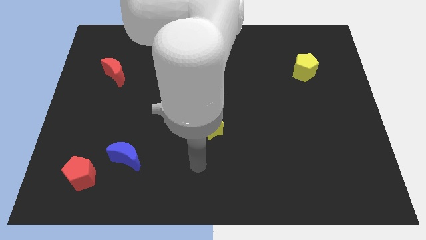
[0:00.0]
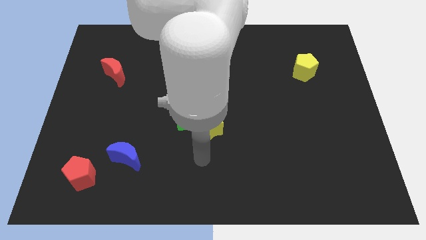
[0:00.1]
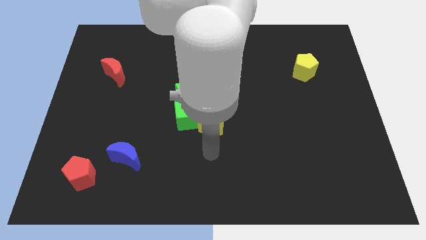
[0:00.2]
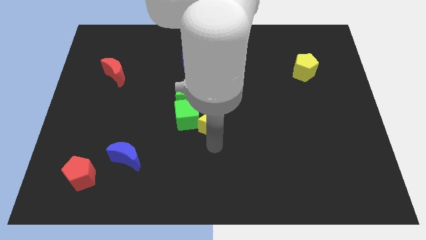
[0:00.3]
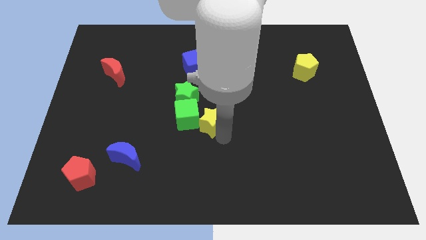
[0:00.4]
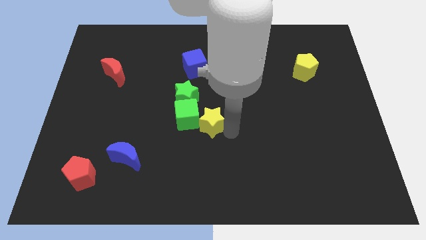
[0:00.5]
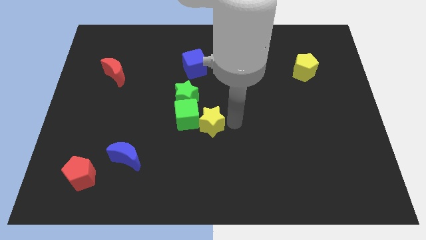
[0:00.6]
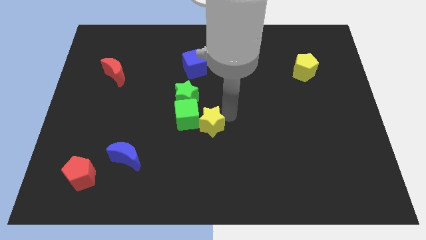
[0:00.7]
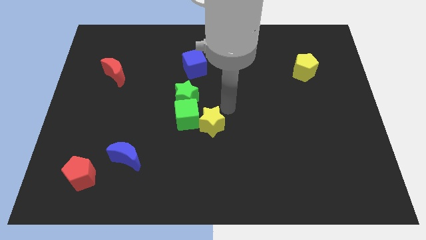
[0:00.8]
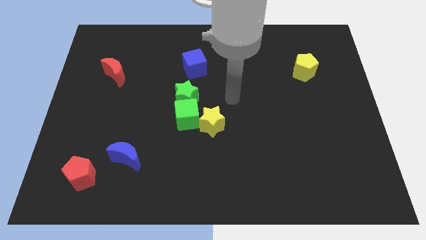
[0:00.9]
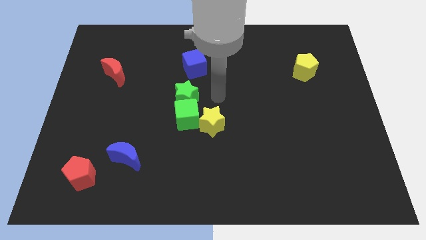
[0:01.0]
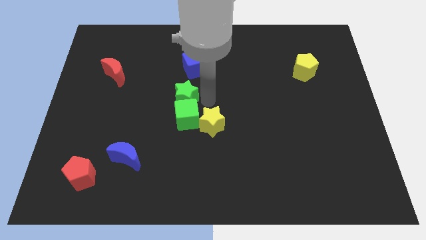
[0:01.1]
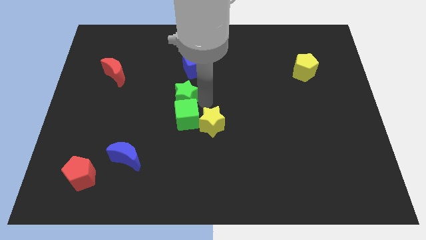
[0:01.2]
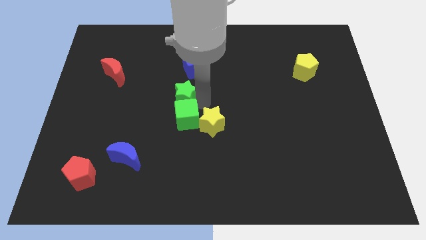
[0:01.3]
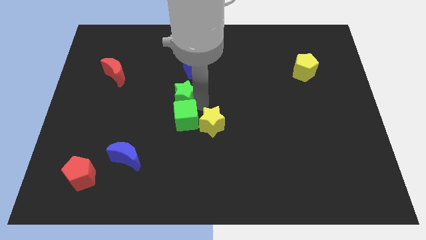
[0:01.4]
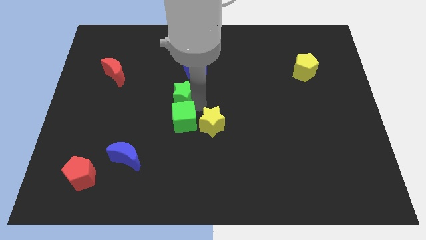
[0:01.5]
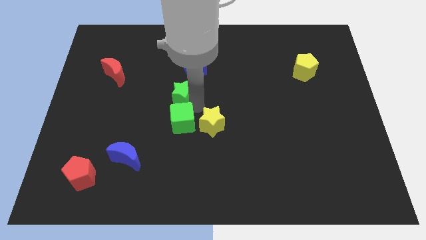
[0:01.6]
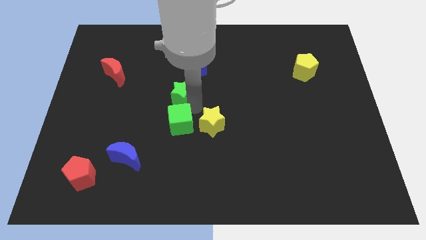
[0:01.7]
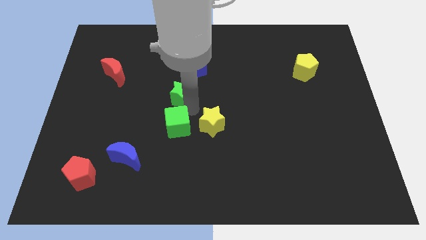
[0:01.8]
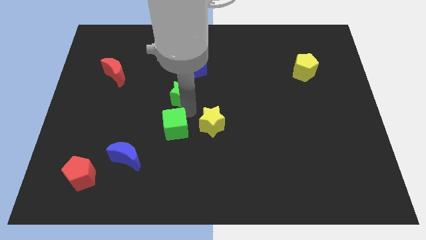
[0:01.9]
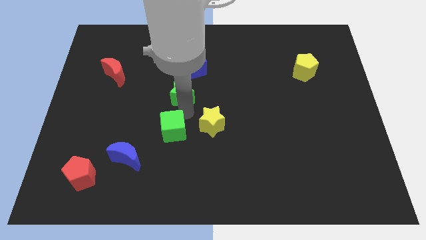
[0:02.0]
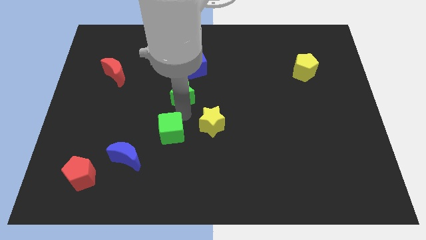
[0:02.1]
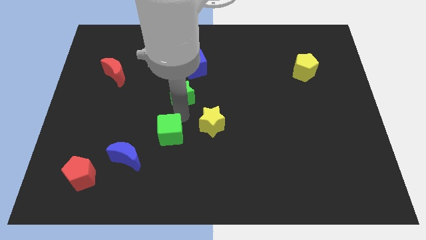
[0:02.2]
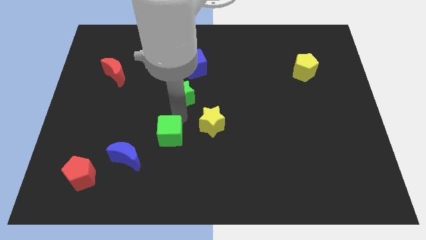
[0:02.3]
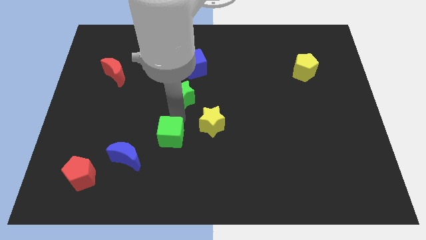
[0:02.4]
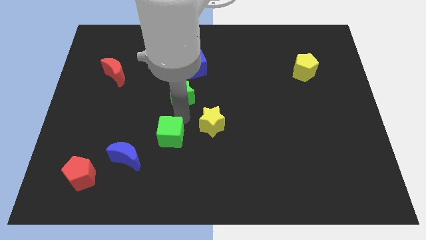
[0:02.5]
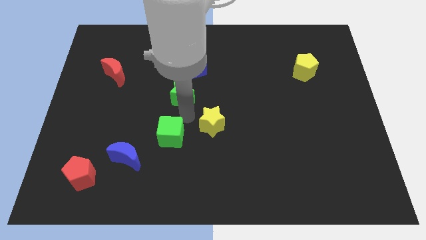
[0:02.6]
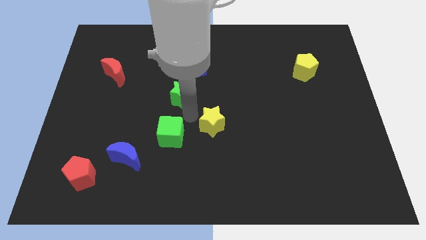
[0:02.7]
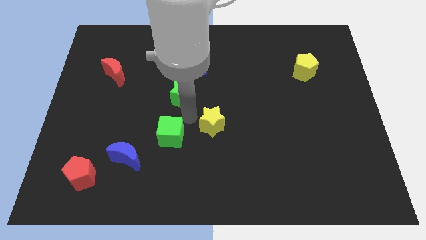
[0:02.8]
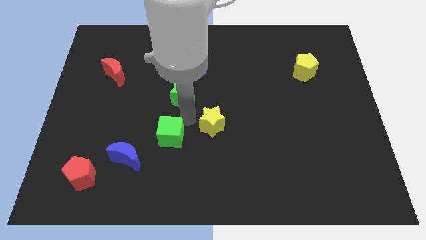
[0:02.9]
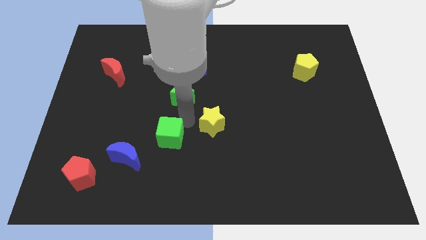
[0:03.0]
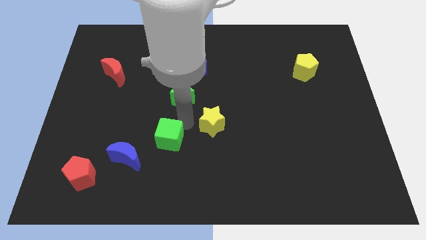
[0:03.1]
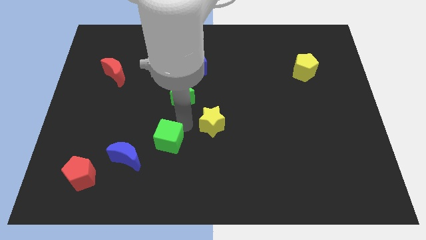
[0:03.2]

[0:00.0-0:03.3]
pull the green cube apart from the yellow star and green star

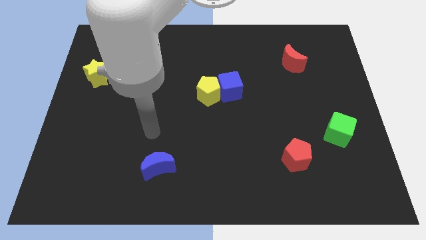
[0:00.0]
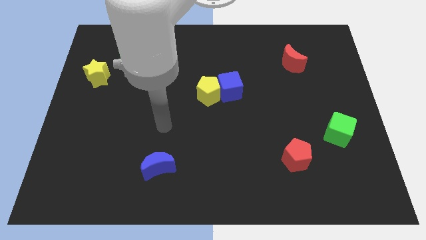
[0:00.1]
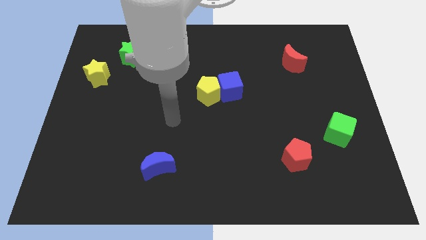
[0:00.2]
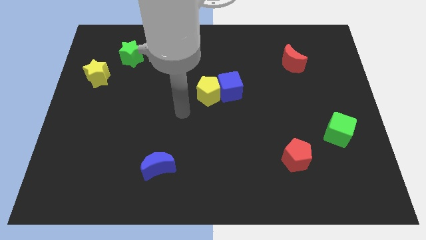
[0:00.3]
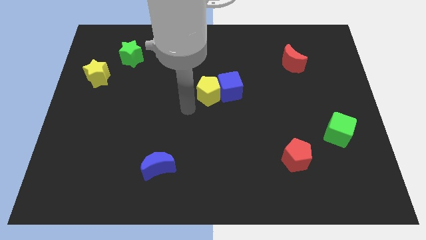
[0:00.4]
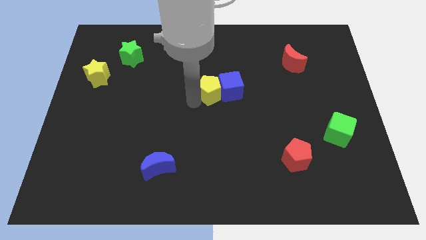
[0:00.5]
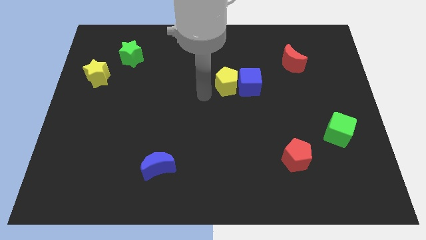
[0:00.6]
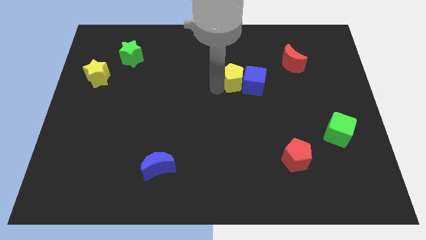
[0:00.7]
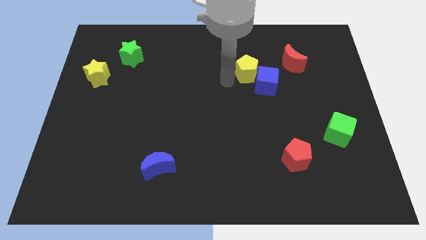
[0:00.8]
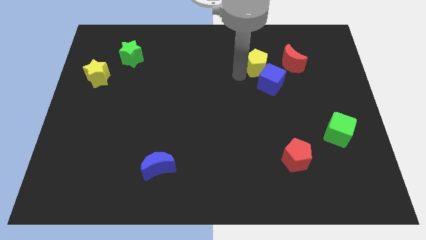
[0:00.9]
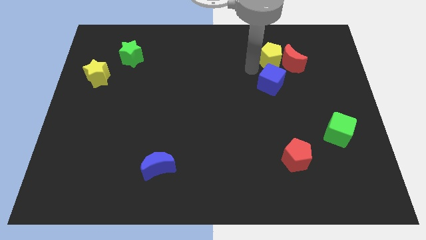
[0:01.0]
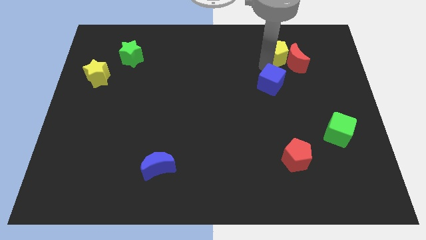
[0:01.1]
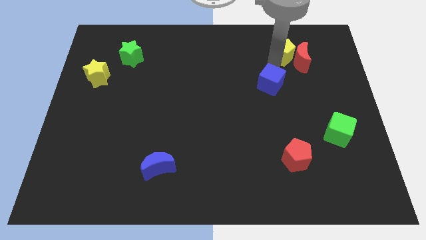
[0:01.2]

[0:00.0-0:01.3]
separate the blue cube from the yellow pentagon

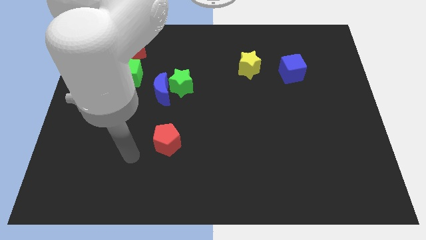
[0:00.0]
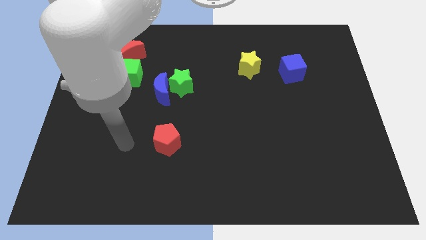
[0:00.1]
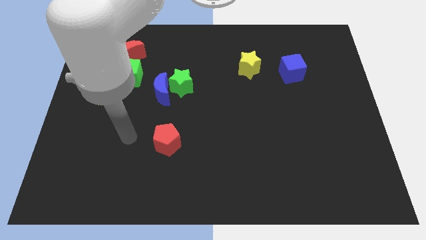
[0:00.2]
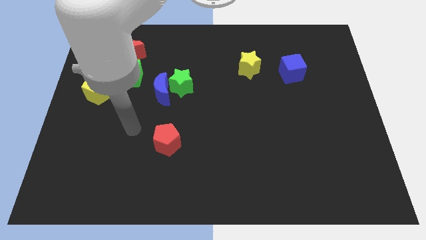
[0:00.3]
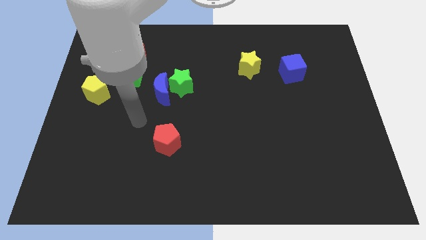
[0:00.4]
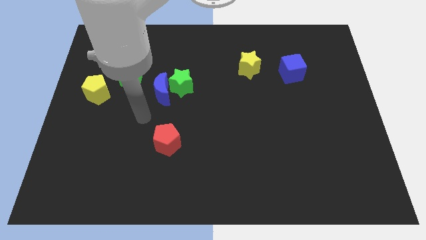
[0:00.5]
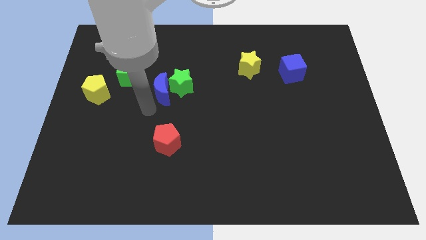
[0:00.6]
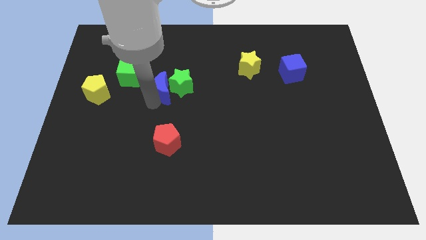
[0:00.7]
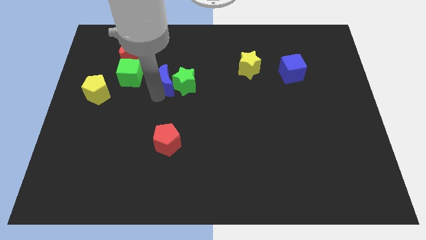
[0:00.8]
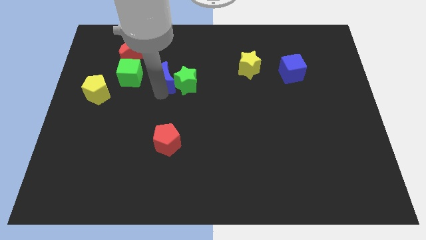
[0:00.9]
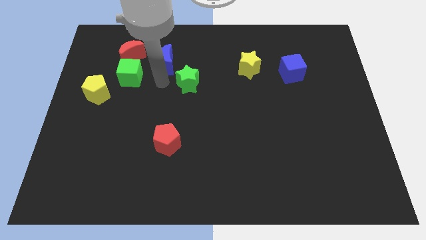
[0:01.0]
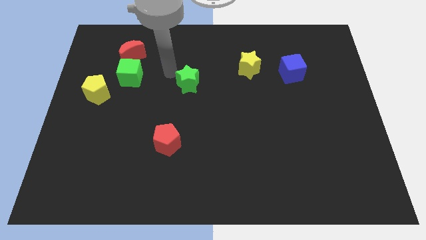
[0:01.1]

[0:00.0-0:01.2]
pull the green star apart from the blue moon

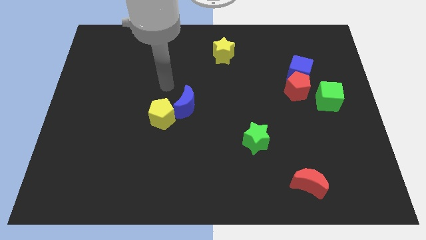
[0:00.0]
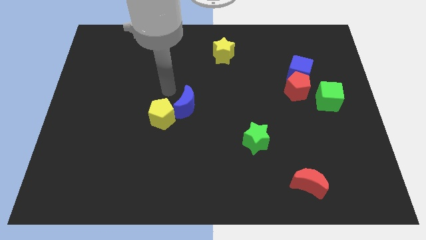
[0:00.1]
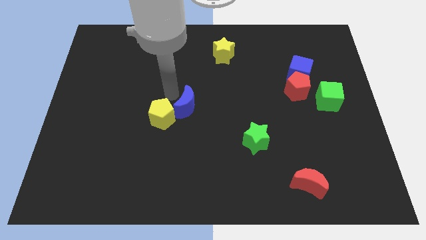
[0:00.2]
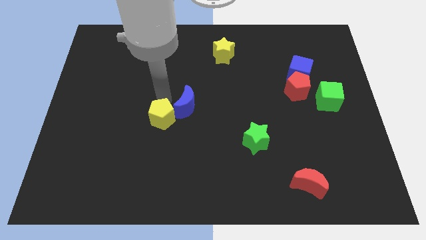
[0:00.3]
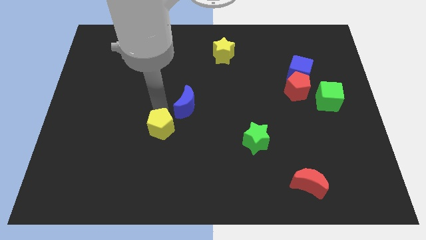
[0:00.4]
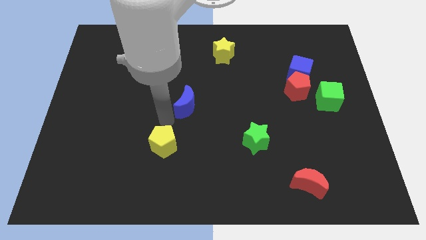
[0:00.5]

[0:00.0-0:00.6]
move the blue moon away from the yellow pentagon

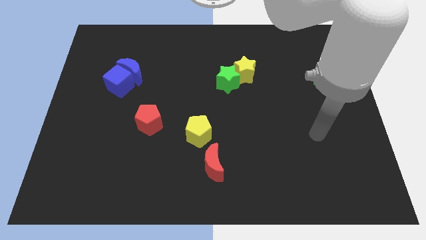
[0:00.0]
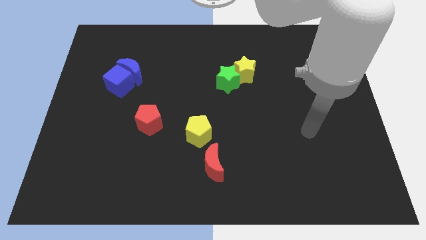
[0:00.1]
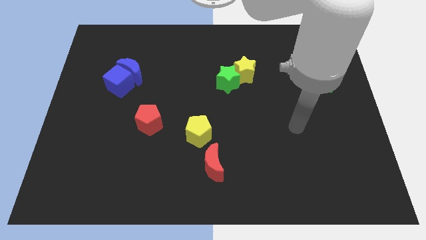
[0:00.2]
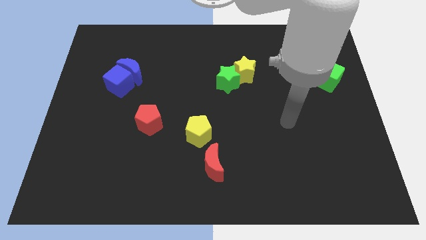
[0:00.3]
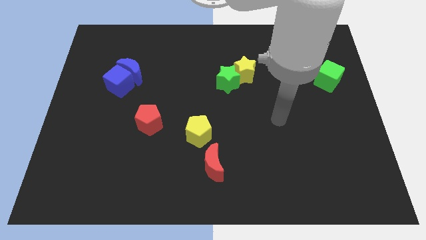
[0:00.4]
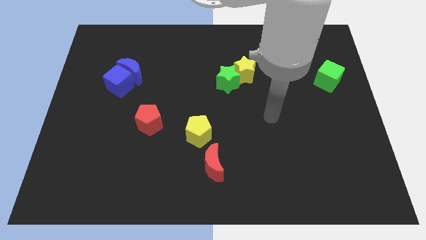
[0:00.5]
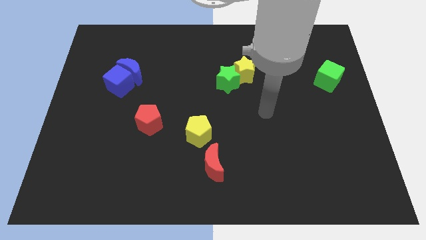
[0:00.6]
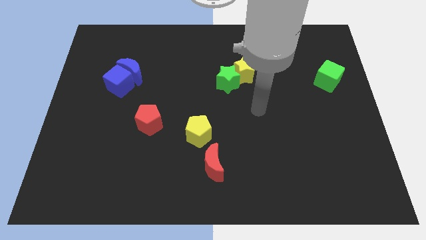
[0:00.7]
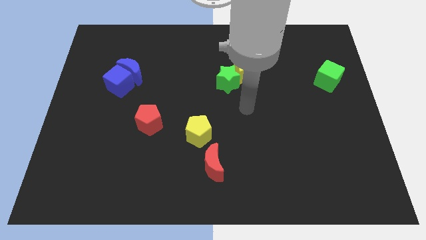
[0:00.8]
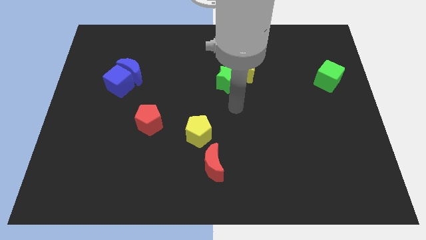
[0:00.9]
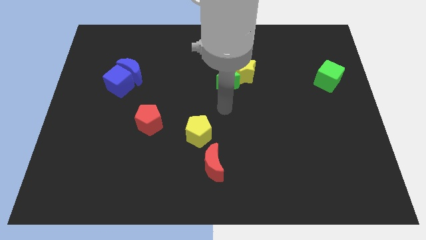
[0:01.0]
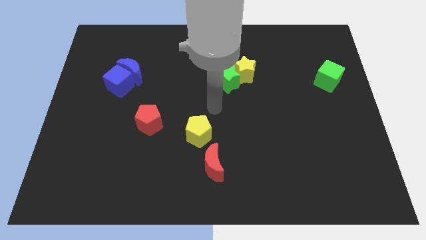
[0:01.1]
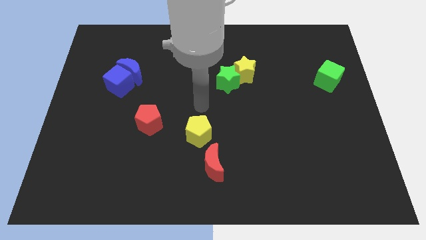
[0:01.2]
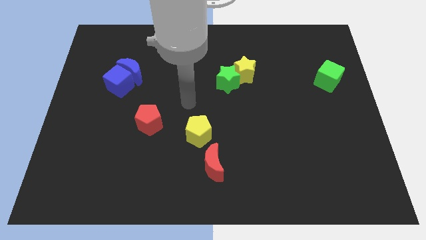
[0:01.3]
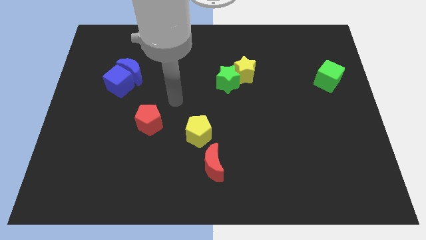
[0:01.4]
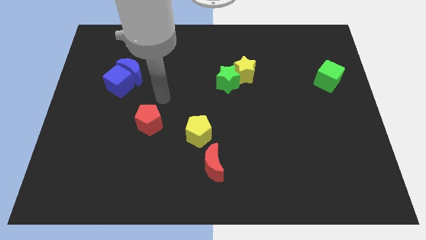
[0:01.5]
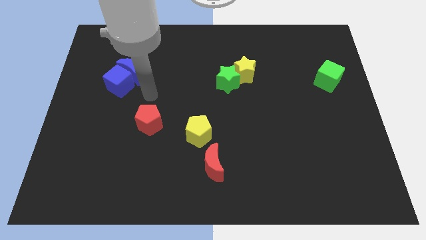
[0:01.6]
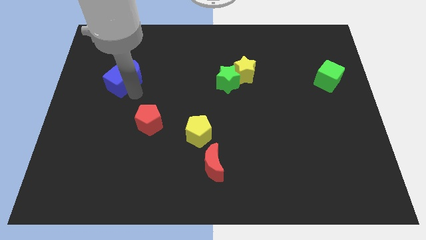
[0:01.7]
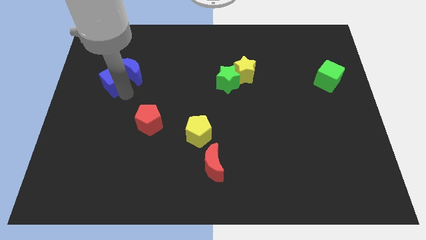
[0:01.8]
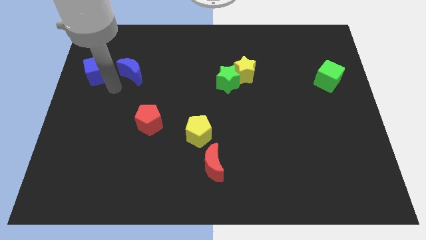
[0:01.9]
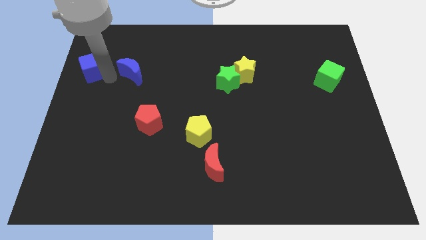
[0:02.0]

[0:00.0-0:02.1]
separate the blue moon from the blue cube

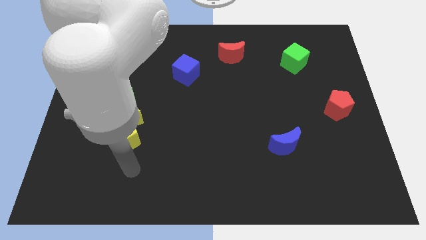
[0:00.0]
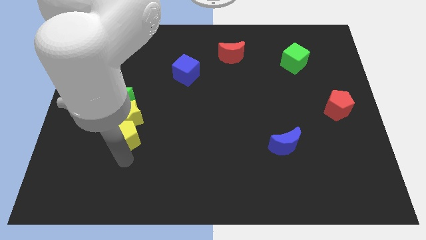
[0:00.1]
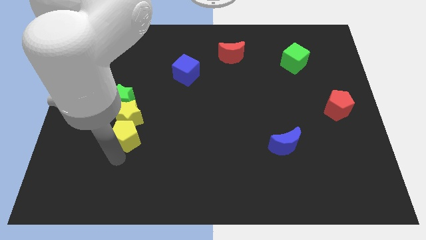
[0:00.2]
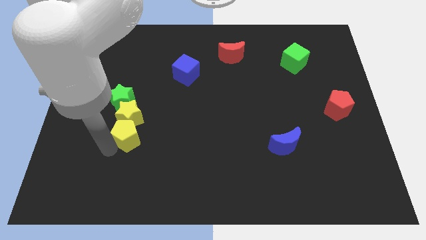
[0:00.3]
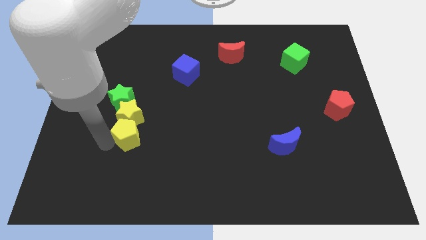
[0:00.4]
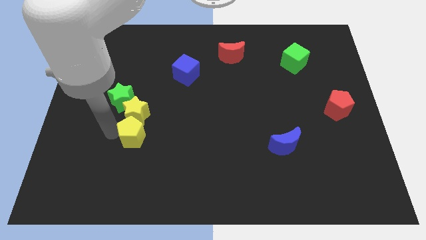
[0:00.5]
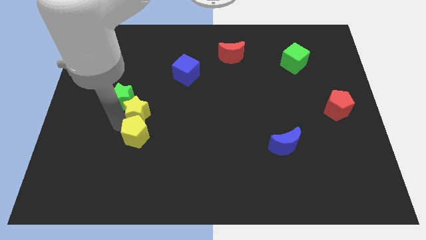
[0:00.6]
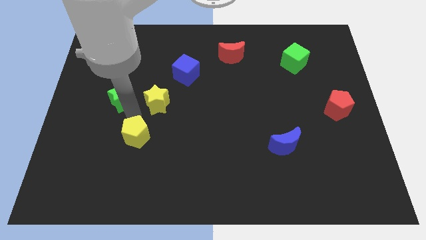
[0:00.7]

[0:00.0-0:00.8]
separate the yellow pentagon from the yellow star

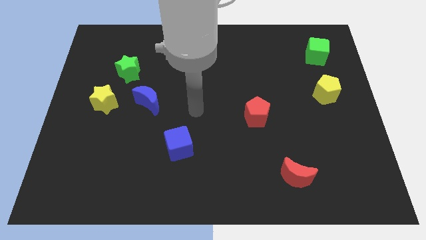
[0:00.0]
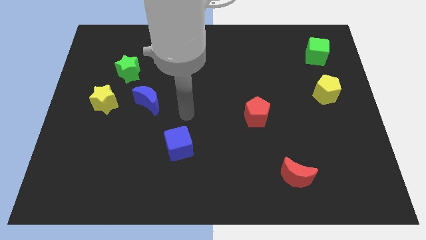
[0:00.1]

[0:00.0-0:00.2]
move the blue moon away from the yellow star
